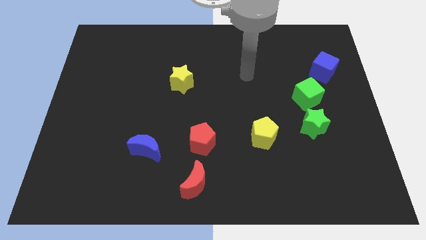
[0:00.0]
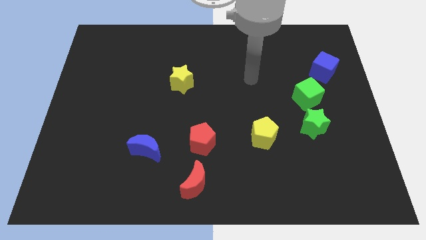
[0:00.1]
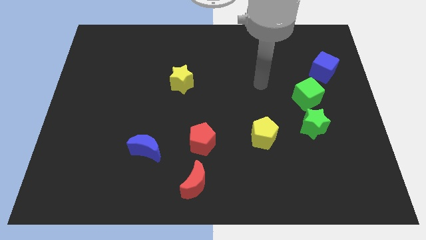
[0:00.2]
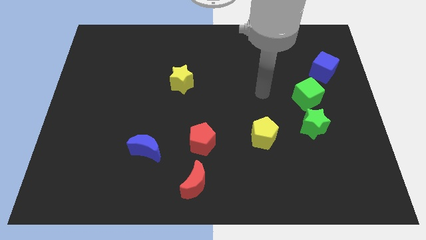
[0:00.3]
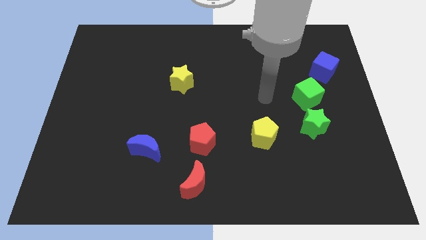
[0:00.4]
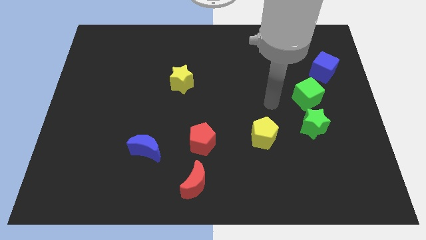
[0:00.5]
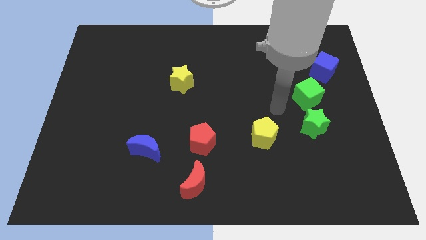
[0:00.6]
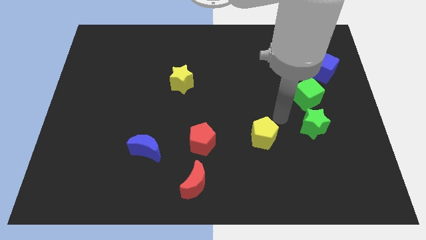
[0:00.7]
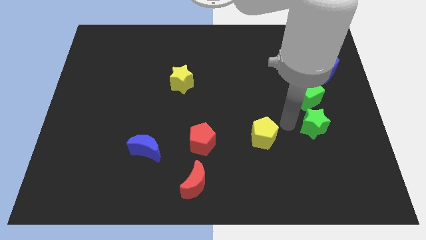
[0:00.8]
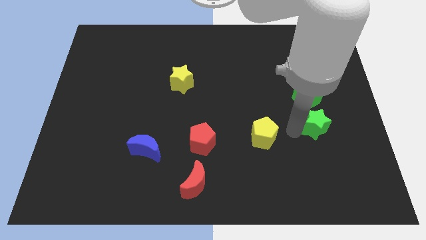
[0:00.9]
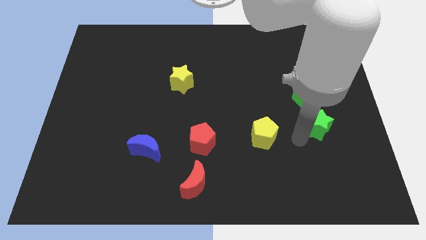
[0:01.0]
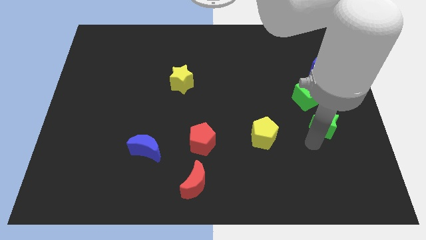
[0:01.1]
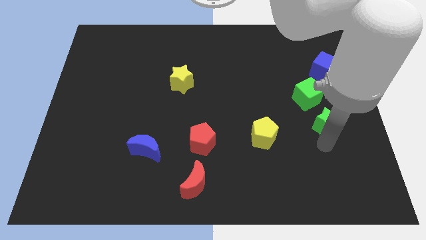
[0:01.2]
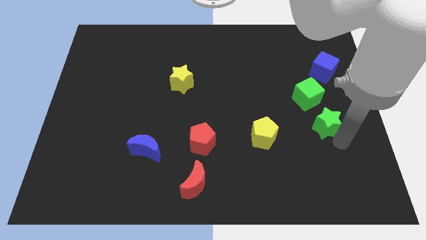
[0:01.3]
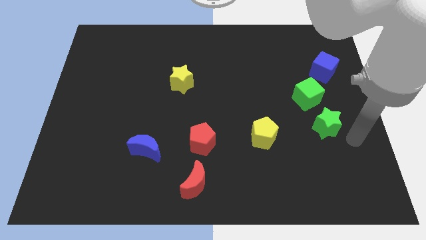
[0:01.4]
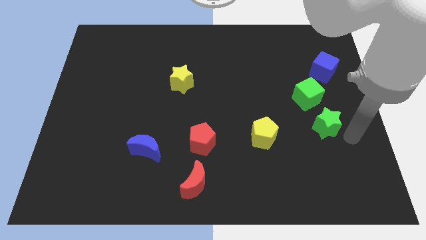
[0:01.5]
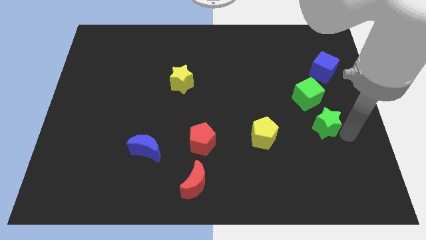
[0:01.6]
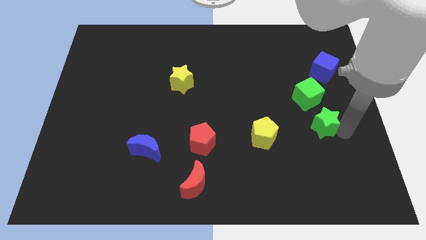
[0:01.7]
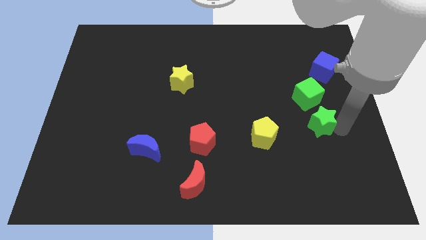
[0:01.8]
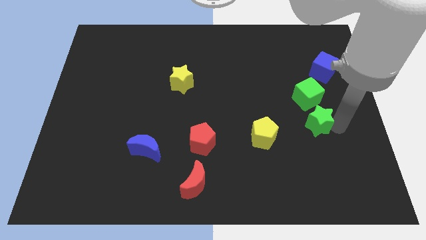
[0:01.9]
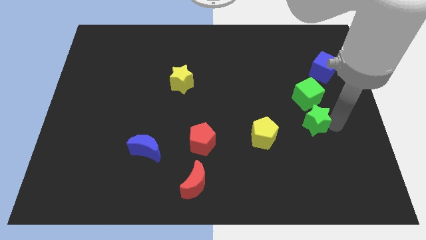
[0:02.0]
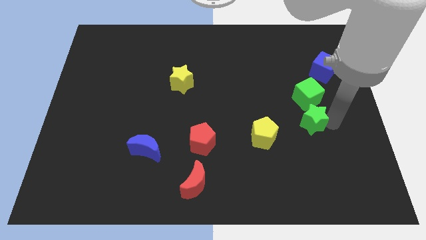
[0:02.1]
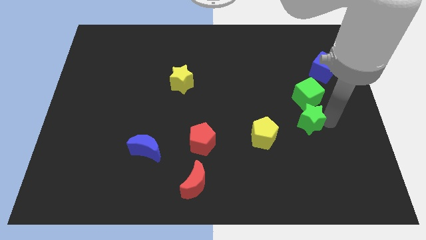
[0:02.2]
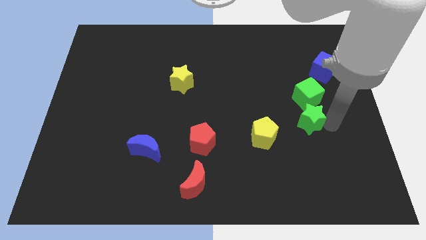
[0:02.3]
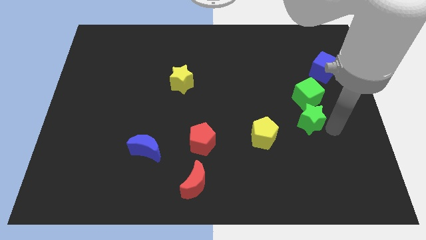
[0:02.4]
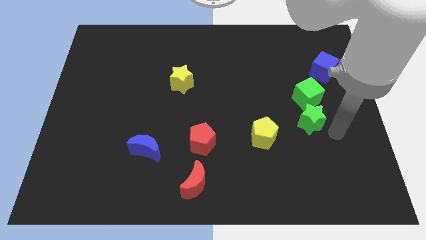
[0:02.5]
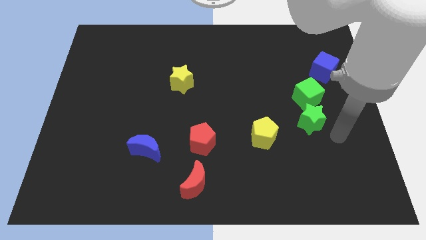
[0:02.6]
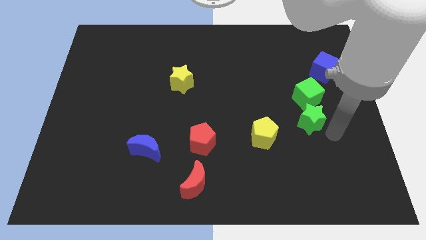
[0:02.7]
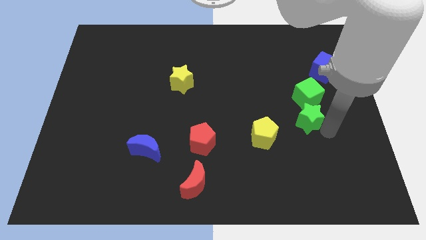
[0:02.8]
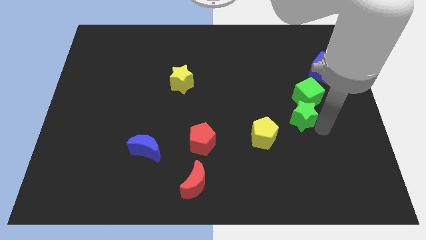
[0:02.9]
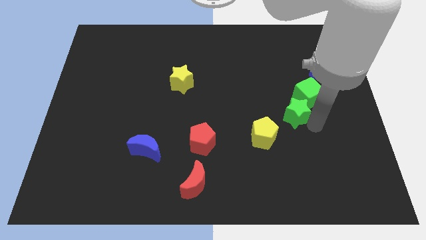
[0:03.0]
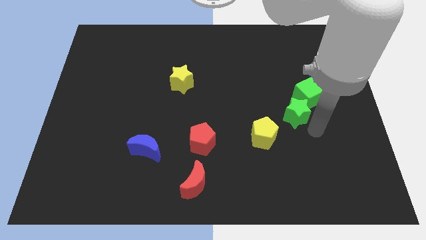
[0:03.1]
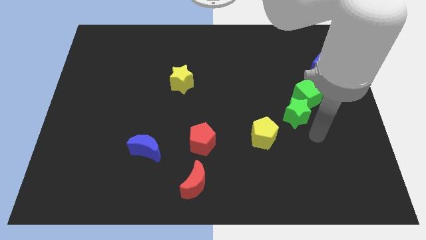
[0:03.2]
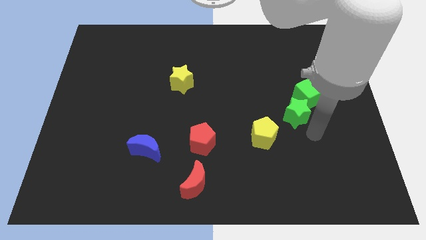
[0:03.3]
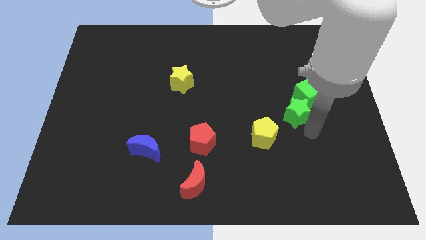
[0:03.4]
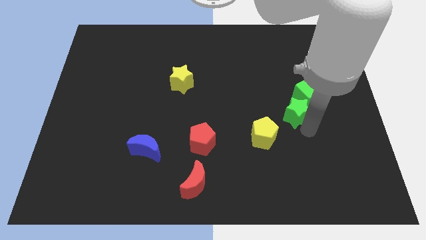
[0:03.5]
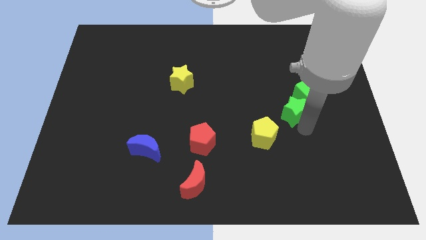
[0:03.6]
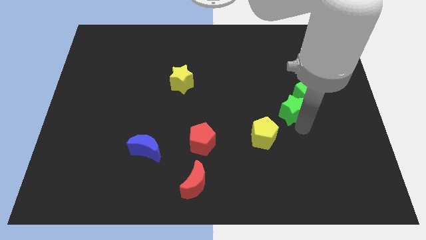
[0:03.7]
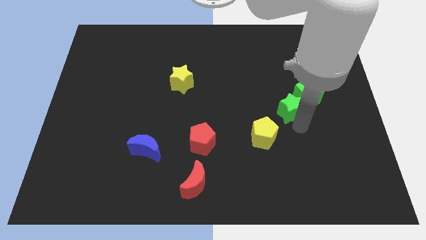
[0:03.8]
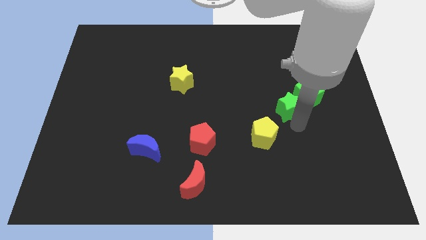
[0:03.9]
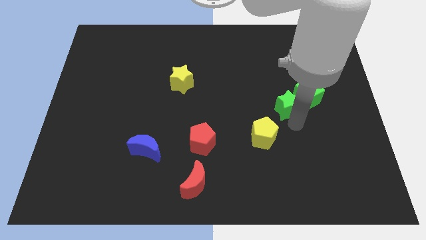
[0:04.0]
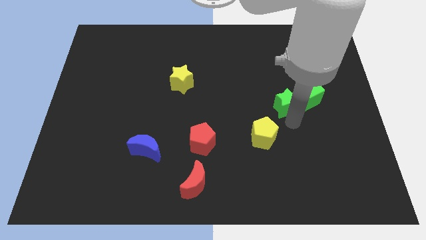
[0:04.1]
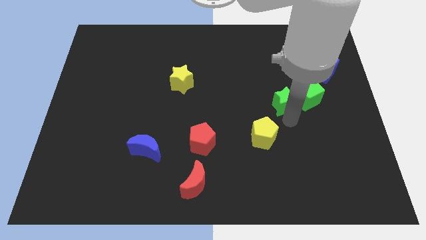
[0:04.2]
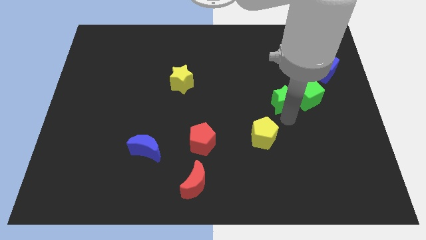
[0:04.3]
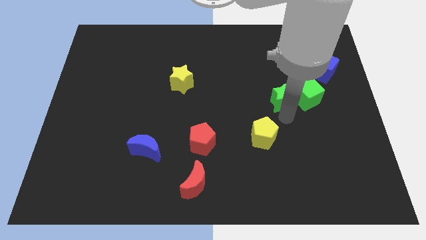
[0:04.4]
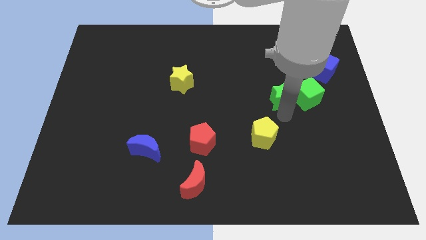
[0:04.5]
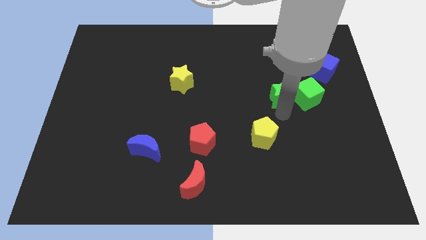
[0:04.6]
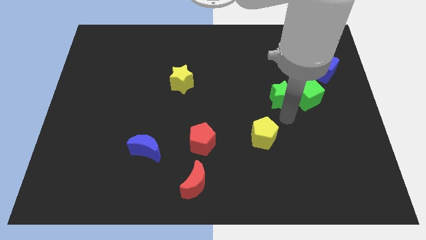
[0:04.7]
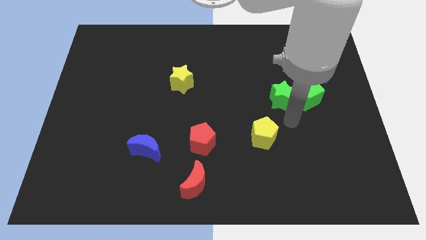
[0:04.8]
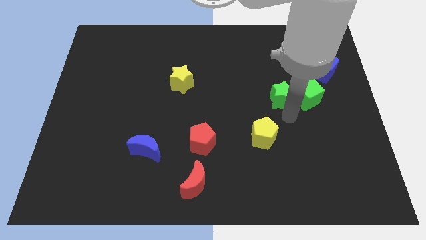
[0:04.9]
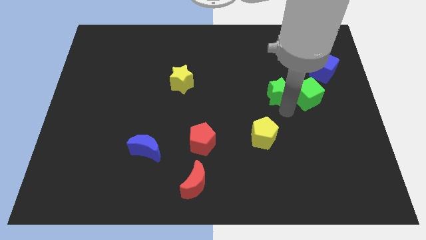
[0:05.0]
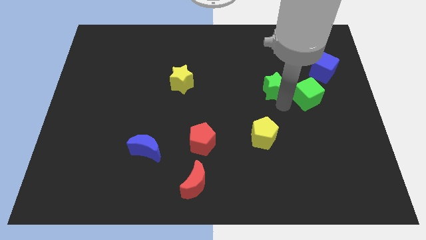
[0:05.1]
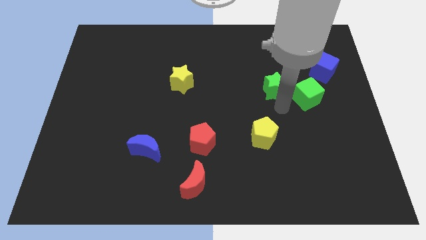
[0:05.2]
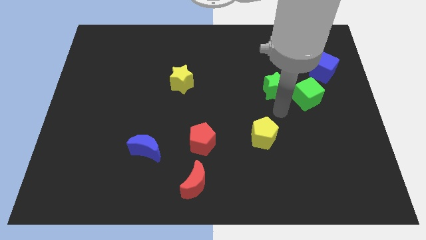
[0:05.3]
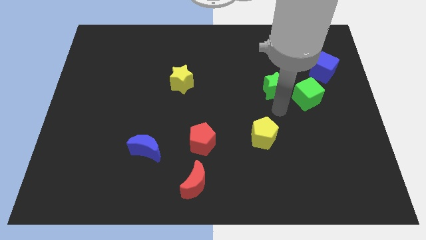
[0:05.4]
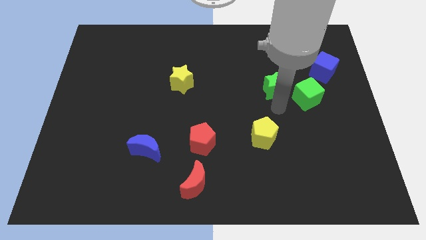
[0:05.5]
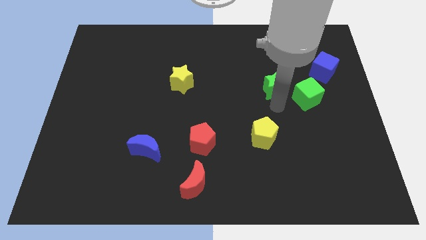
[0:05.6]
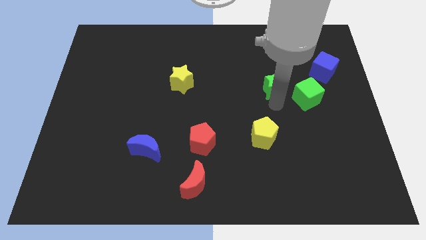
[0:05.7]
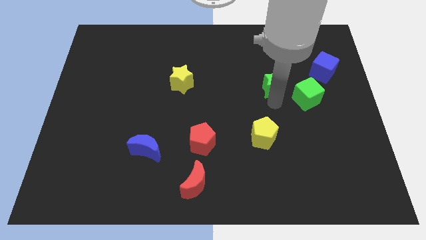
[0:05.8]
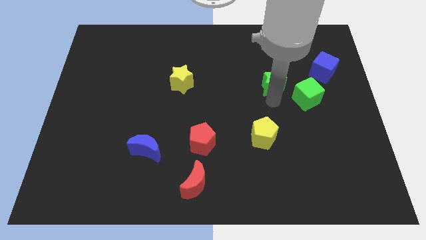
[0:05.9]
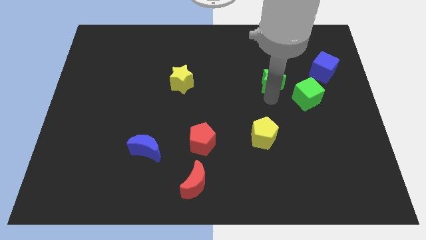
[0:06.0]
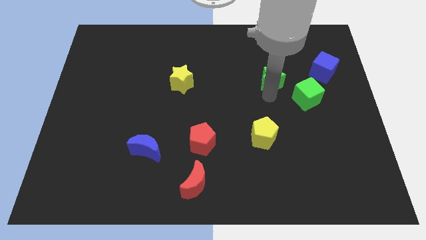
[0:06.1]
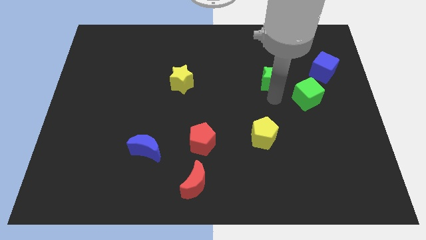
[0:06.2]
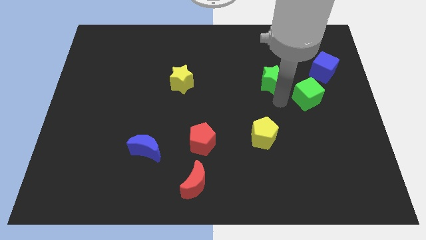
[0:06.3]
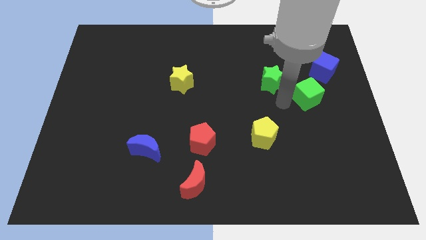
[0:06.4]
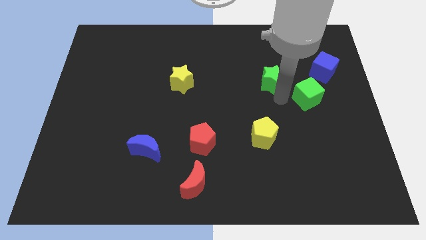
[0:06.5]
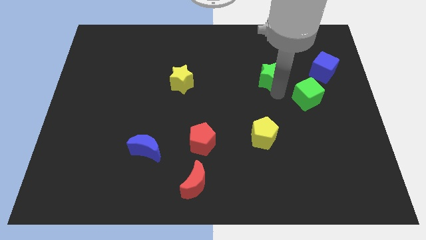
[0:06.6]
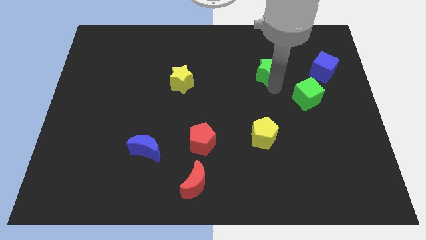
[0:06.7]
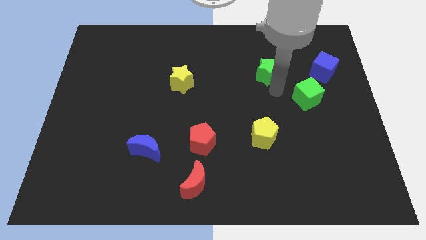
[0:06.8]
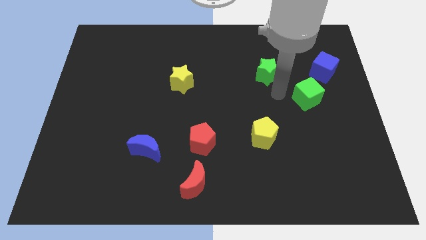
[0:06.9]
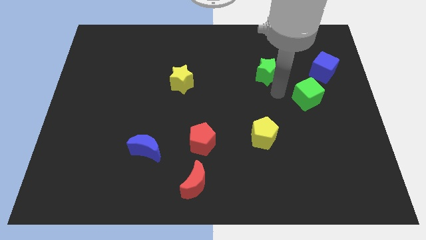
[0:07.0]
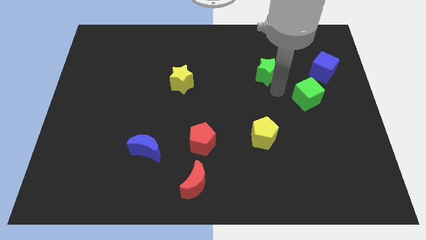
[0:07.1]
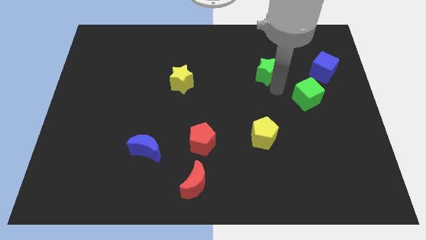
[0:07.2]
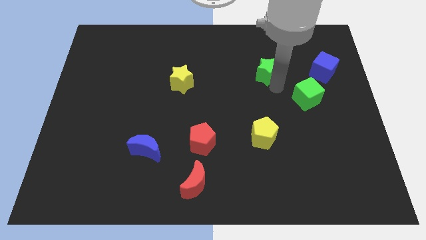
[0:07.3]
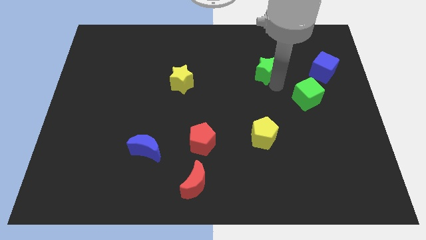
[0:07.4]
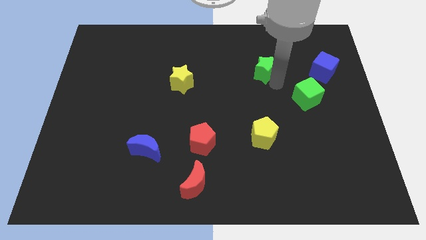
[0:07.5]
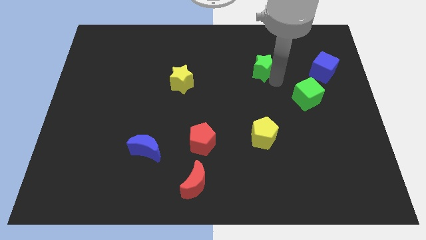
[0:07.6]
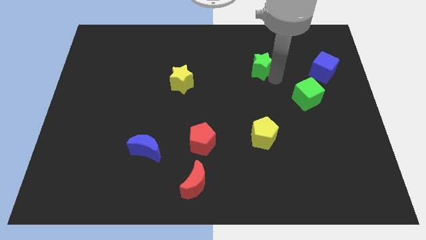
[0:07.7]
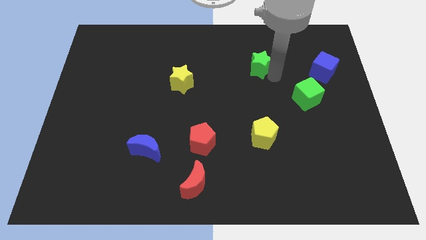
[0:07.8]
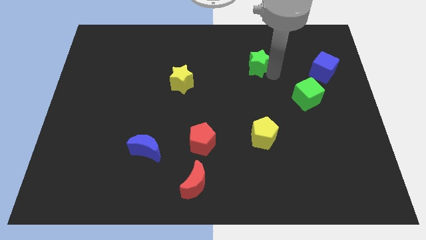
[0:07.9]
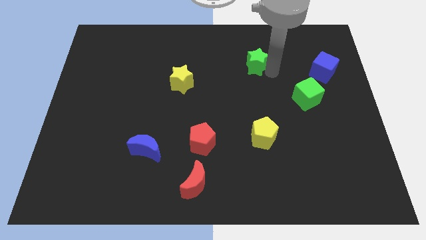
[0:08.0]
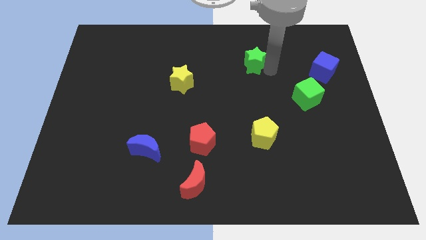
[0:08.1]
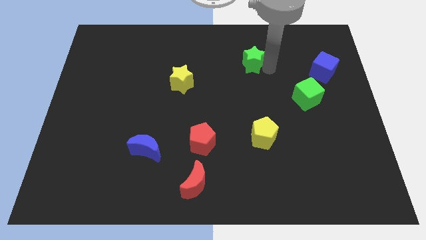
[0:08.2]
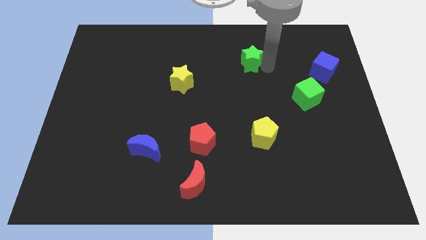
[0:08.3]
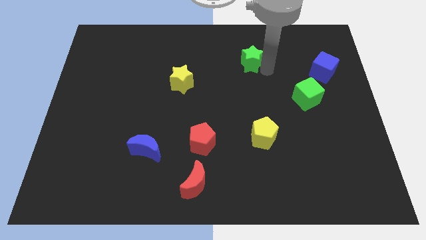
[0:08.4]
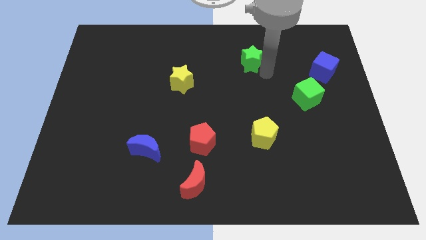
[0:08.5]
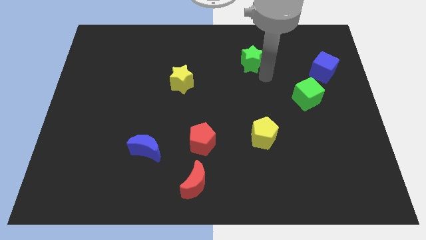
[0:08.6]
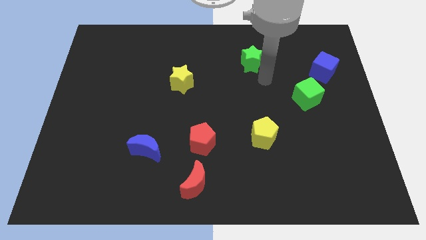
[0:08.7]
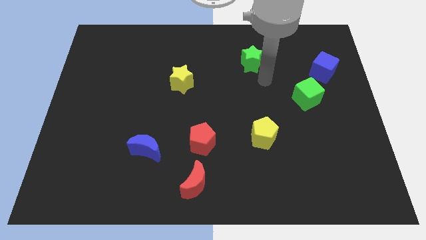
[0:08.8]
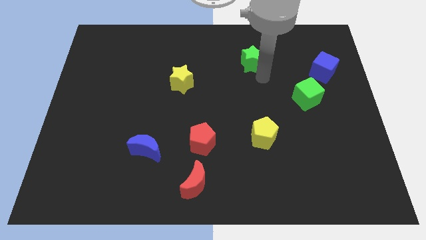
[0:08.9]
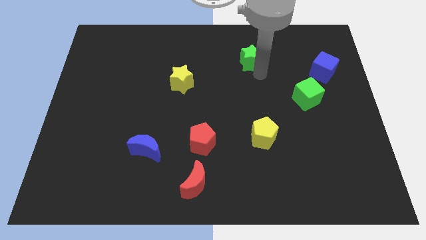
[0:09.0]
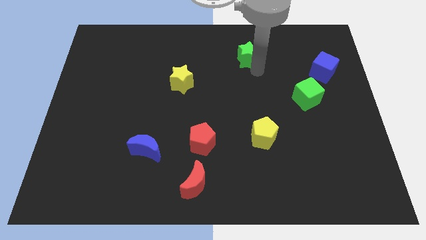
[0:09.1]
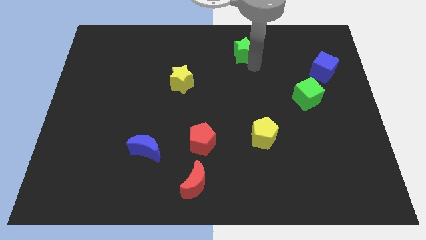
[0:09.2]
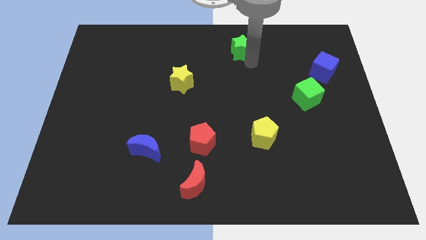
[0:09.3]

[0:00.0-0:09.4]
slide the green star to the towards your base
